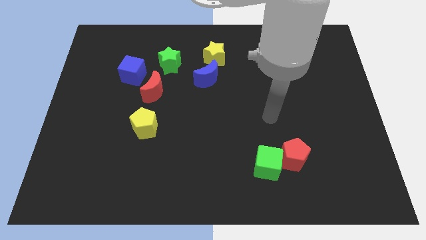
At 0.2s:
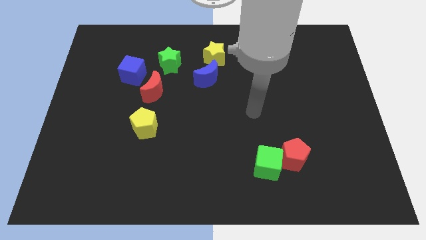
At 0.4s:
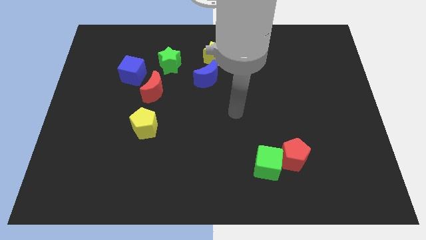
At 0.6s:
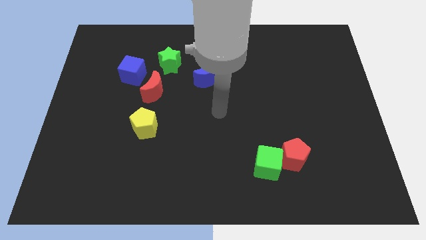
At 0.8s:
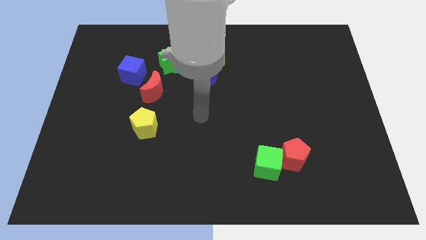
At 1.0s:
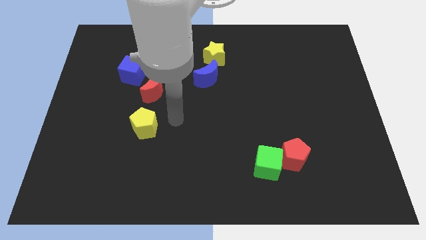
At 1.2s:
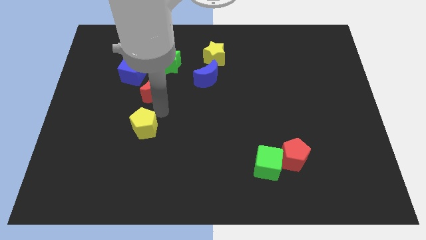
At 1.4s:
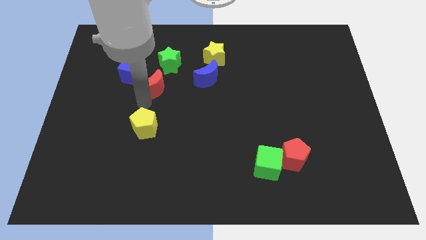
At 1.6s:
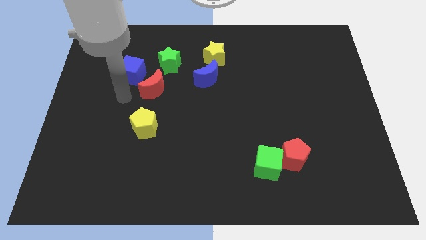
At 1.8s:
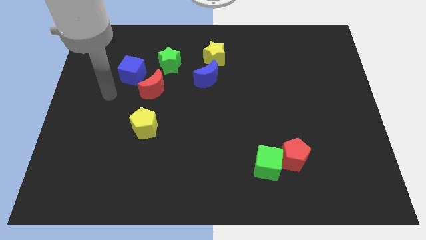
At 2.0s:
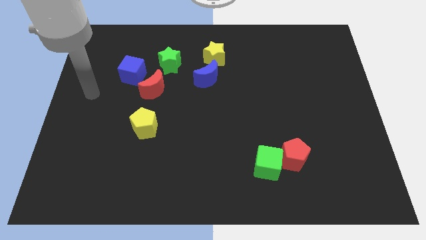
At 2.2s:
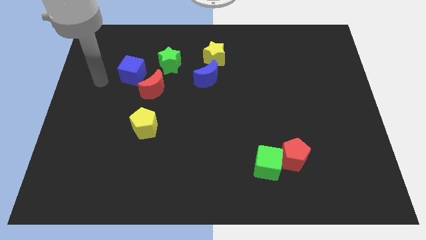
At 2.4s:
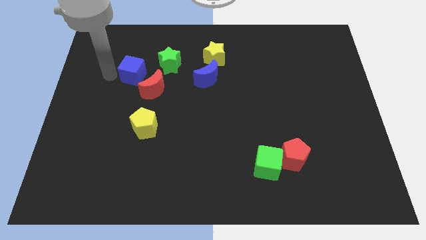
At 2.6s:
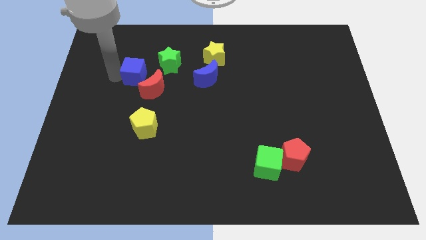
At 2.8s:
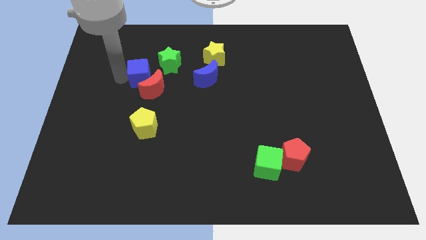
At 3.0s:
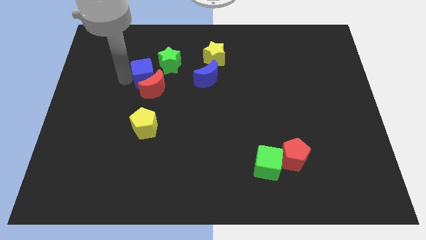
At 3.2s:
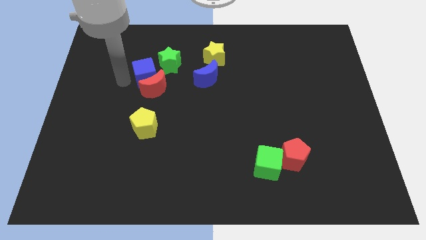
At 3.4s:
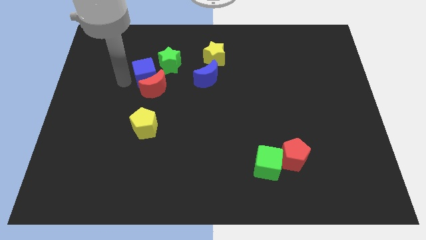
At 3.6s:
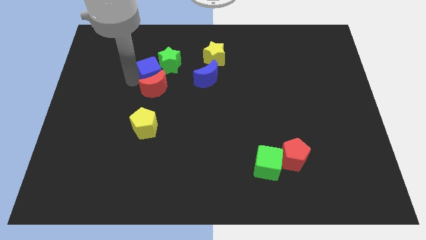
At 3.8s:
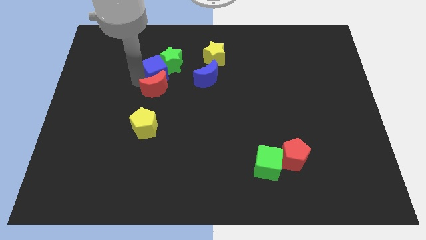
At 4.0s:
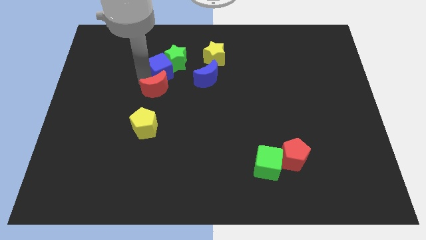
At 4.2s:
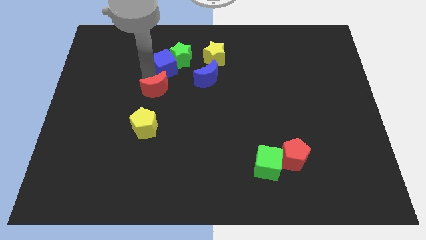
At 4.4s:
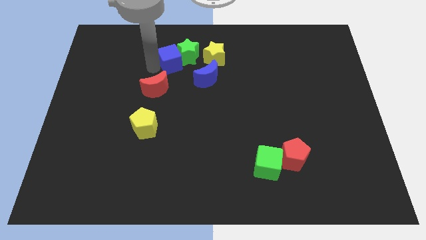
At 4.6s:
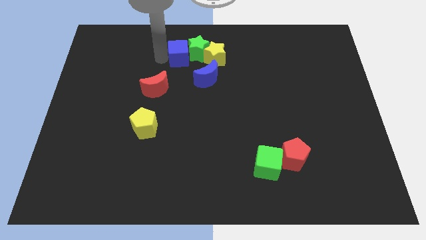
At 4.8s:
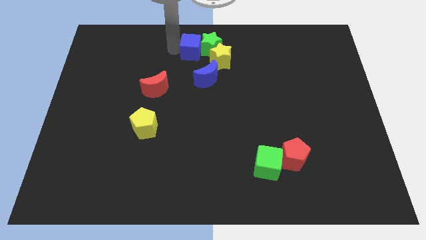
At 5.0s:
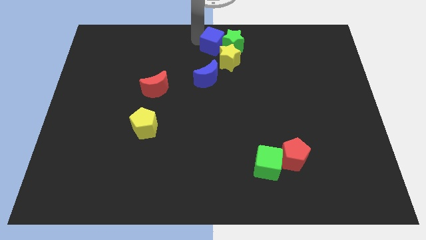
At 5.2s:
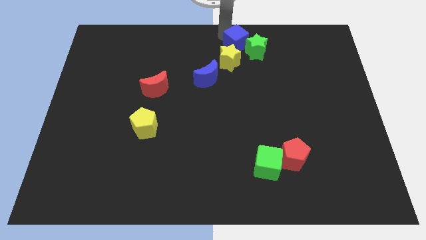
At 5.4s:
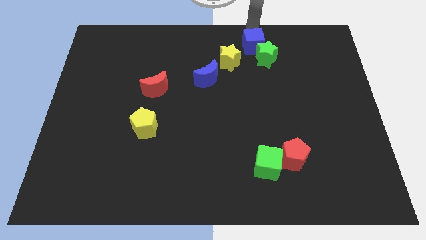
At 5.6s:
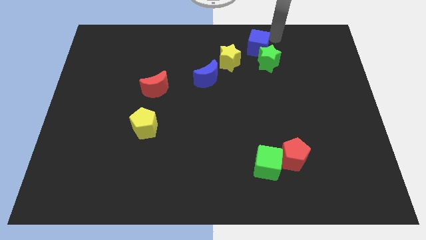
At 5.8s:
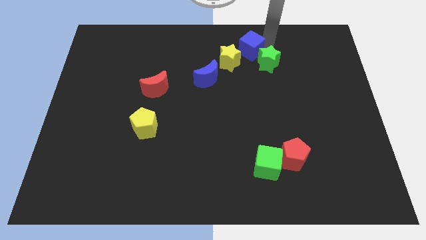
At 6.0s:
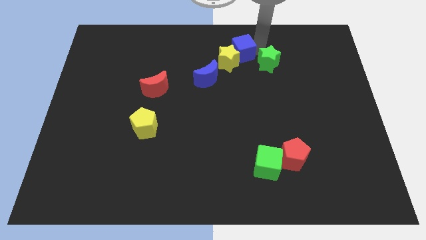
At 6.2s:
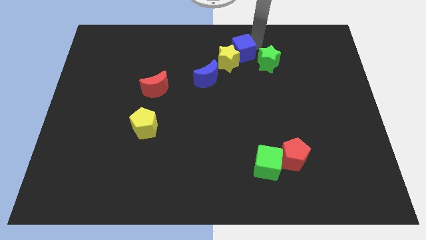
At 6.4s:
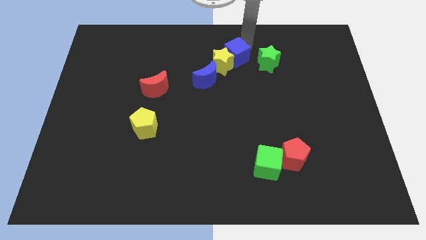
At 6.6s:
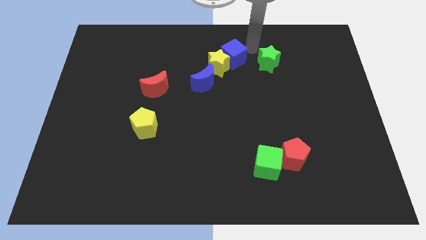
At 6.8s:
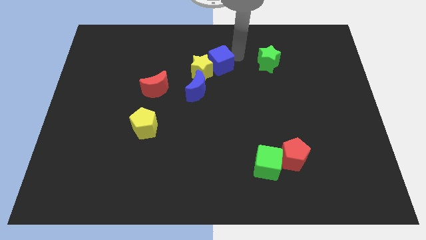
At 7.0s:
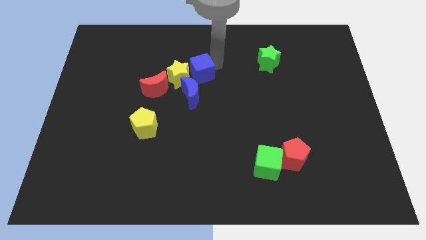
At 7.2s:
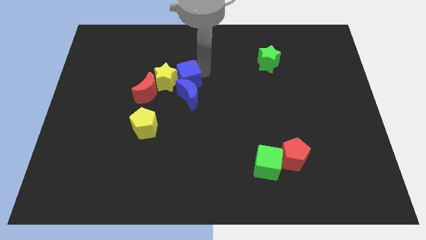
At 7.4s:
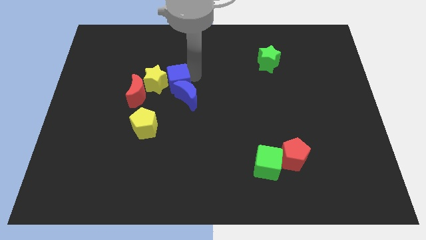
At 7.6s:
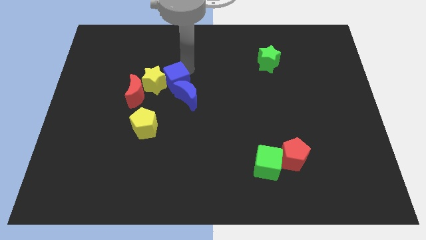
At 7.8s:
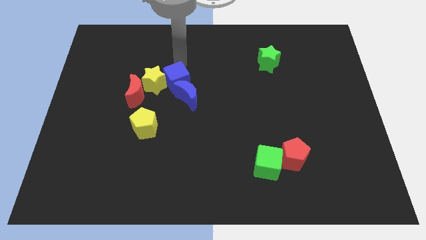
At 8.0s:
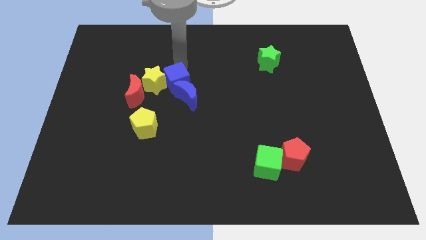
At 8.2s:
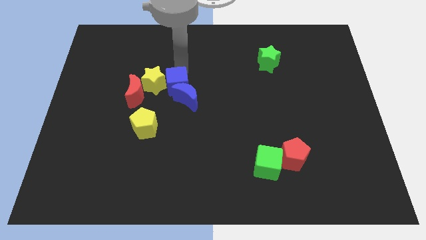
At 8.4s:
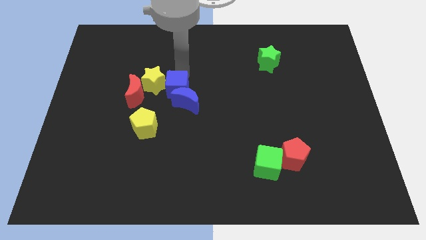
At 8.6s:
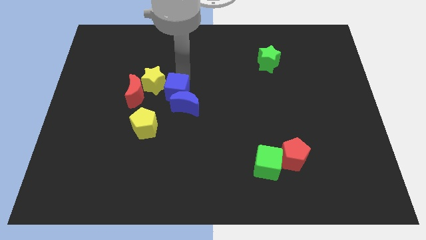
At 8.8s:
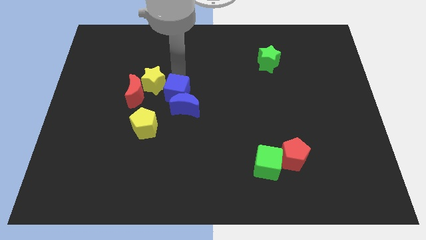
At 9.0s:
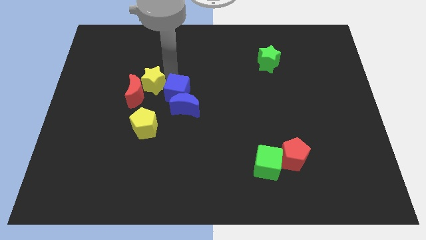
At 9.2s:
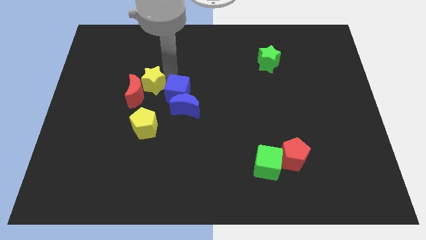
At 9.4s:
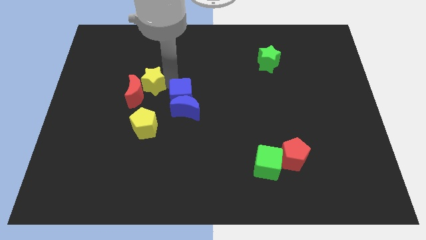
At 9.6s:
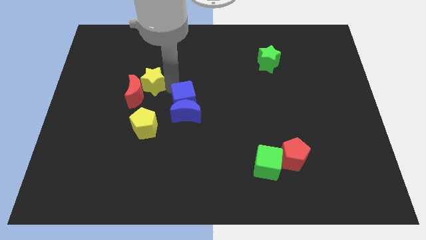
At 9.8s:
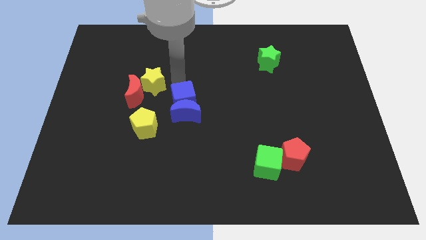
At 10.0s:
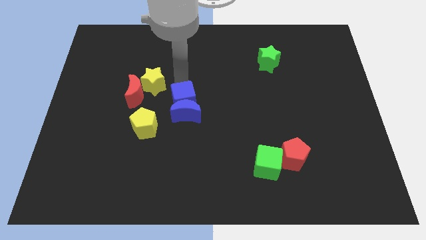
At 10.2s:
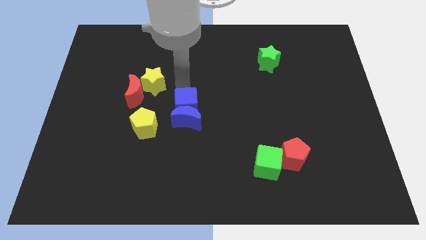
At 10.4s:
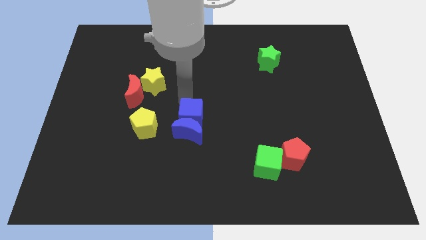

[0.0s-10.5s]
move the blue cube down and to the right diagonally

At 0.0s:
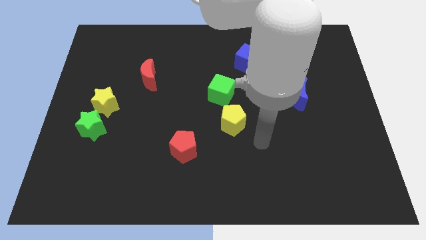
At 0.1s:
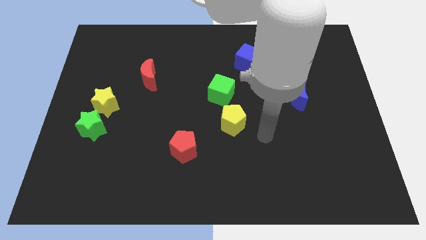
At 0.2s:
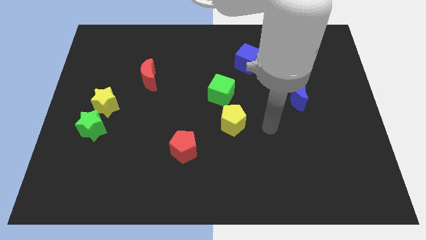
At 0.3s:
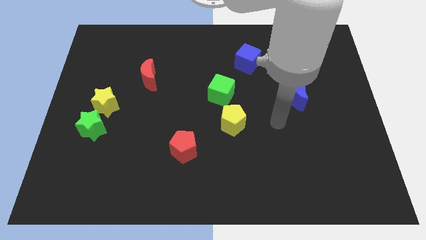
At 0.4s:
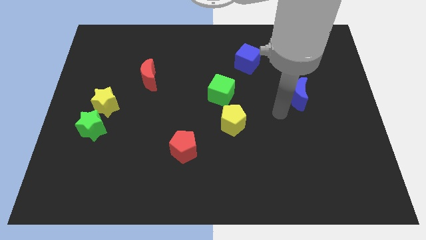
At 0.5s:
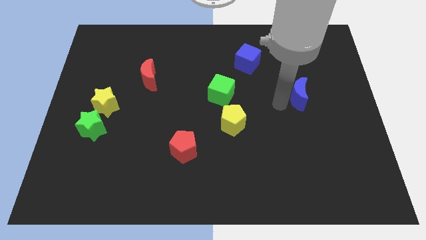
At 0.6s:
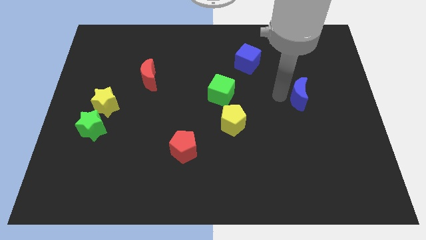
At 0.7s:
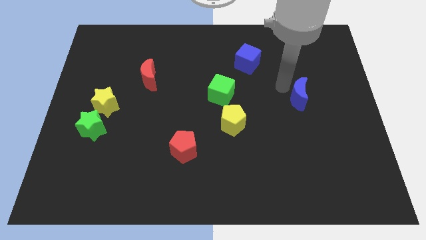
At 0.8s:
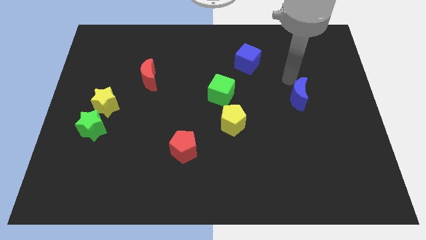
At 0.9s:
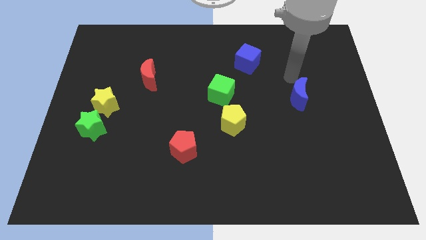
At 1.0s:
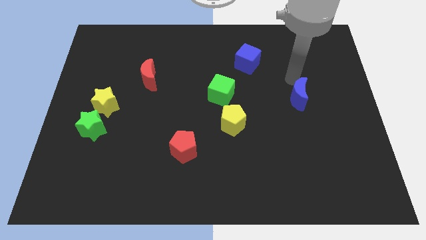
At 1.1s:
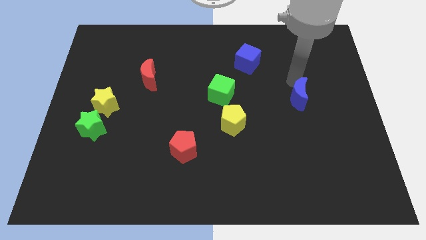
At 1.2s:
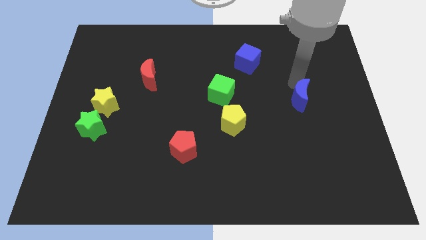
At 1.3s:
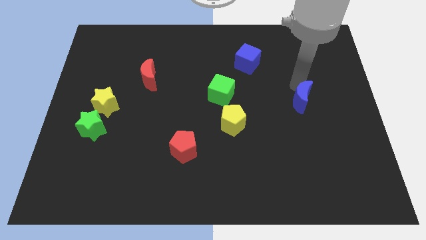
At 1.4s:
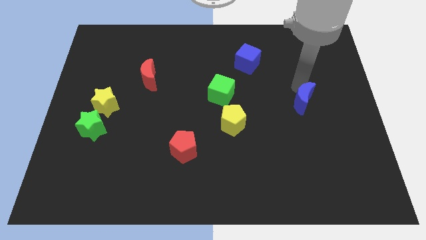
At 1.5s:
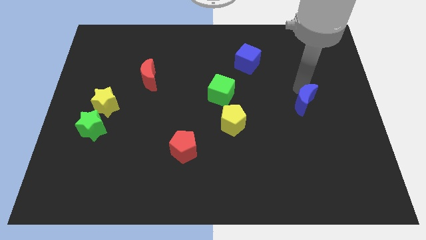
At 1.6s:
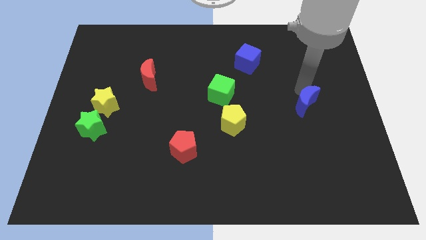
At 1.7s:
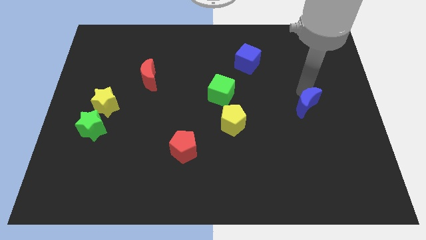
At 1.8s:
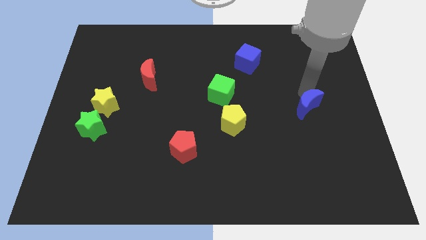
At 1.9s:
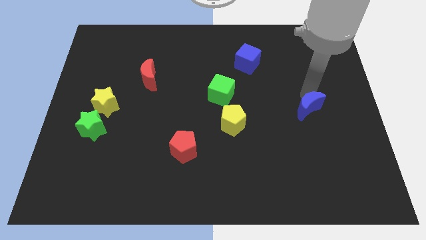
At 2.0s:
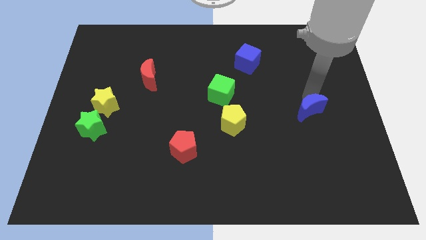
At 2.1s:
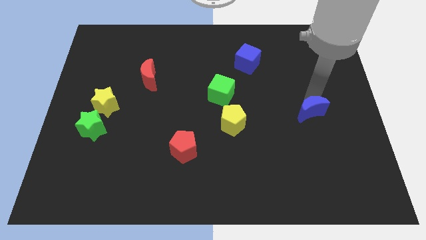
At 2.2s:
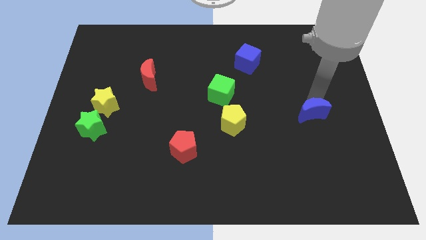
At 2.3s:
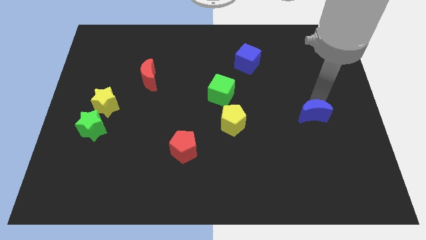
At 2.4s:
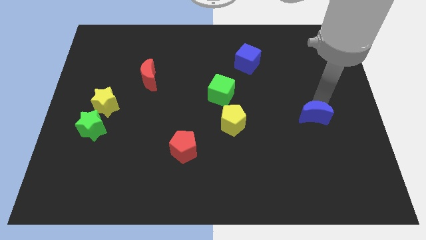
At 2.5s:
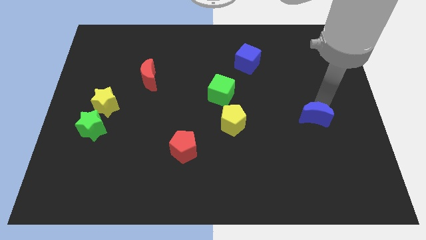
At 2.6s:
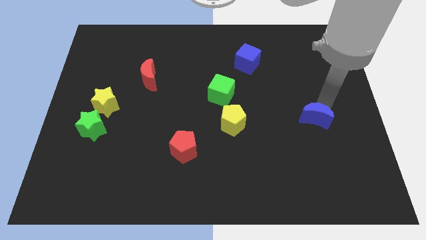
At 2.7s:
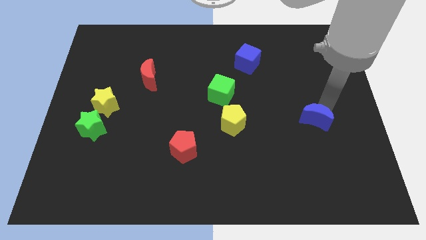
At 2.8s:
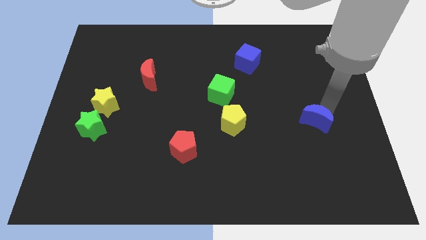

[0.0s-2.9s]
slide the blue moon a little downwards

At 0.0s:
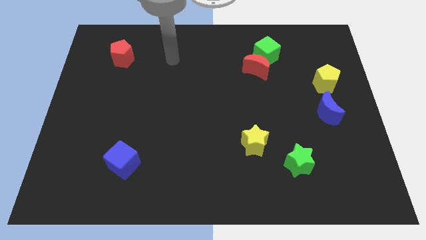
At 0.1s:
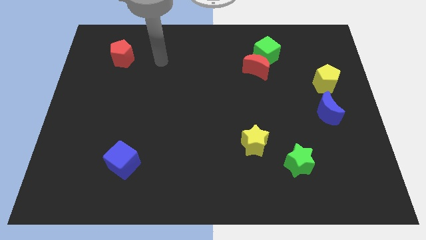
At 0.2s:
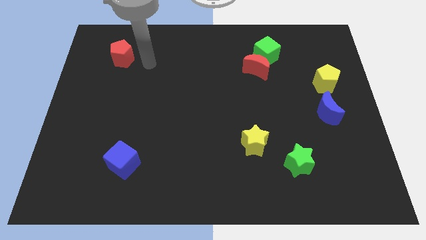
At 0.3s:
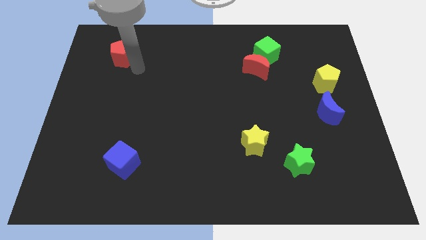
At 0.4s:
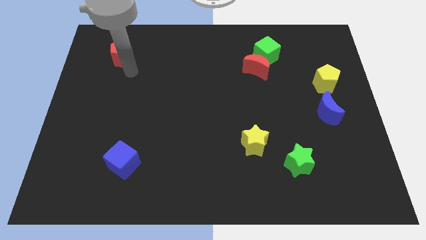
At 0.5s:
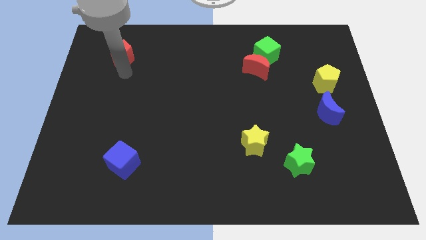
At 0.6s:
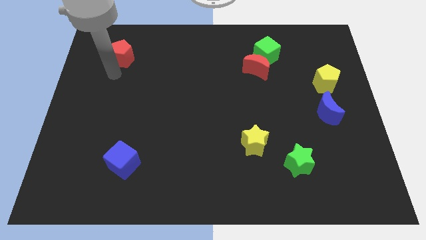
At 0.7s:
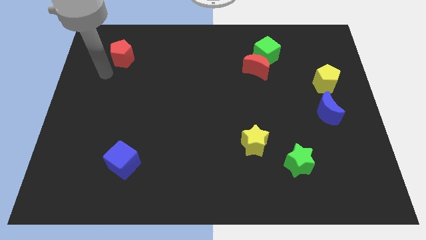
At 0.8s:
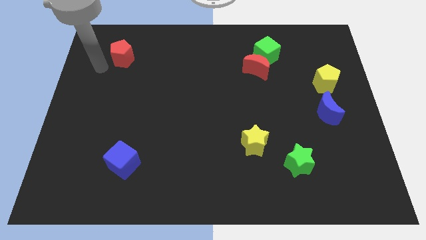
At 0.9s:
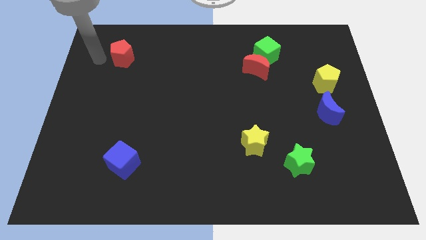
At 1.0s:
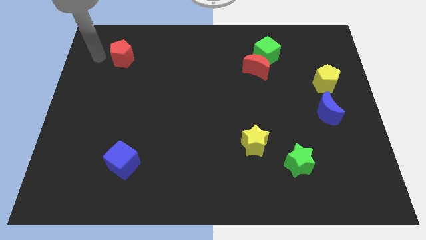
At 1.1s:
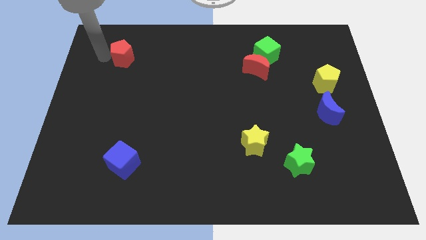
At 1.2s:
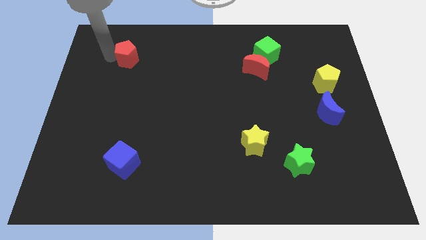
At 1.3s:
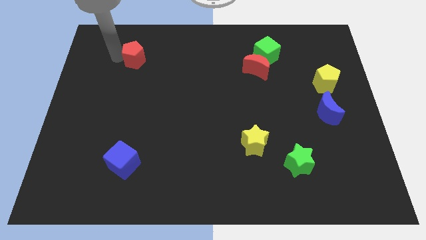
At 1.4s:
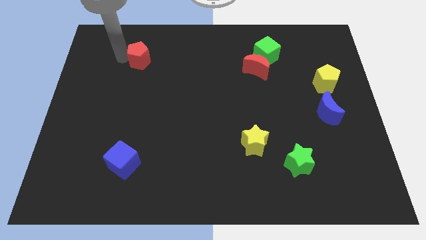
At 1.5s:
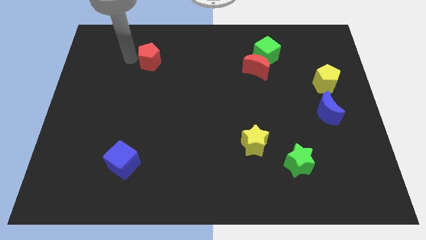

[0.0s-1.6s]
move the red pentagon a little bit to the right
